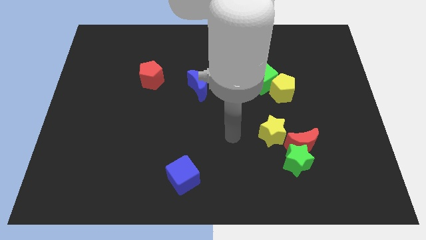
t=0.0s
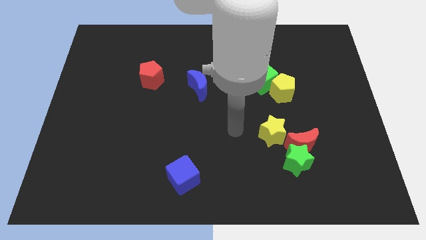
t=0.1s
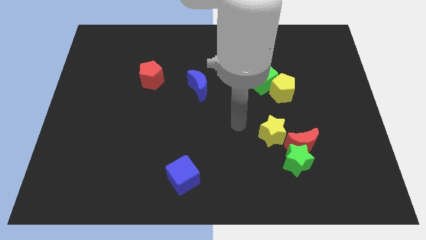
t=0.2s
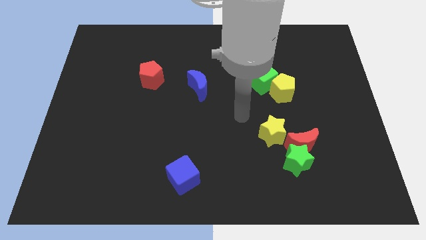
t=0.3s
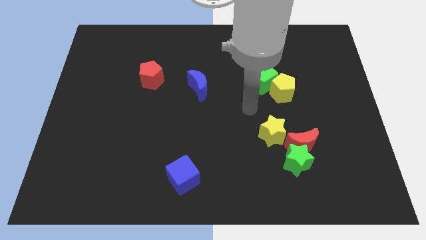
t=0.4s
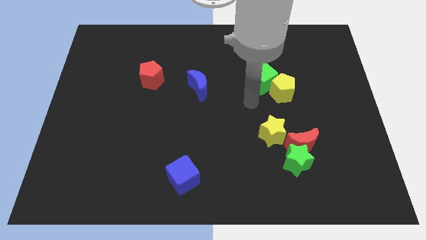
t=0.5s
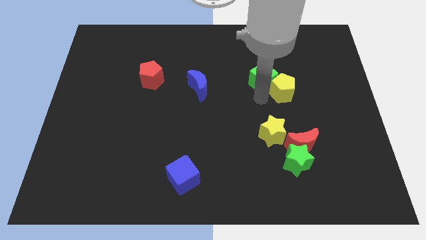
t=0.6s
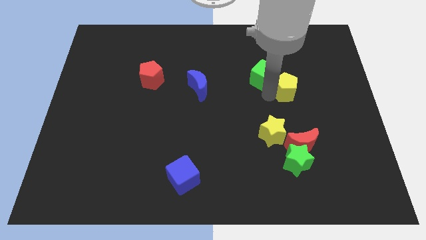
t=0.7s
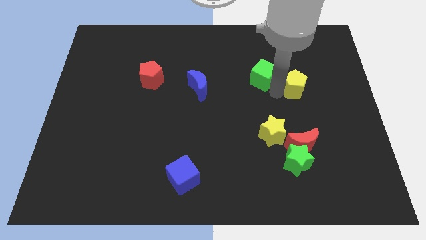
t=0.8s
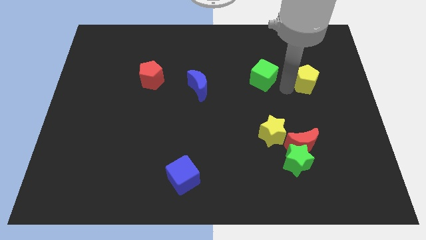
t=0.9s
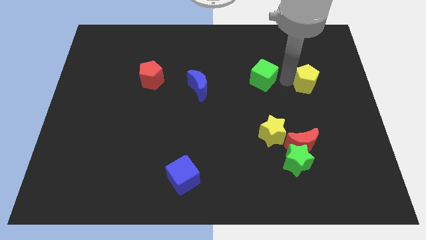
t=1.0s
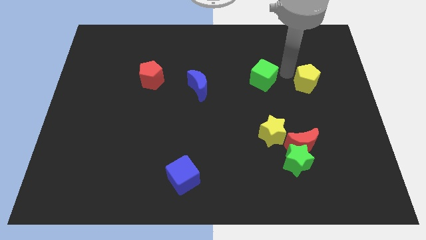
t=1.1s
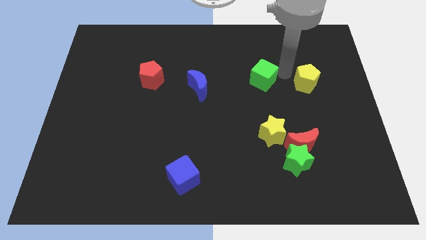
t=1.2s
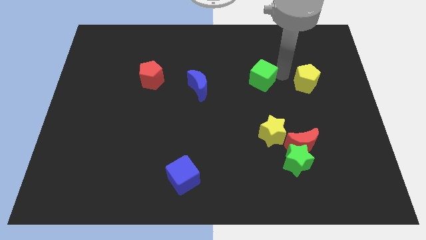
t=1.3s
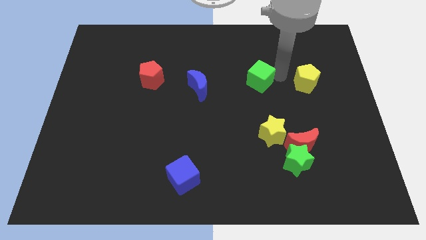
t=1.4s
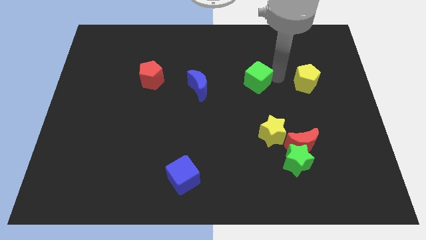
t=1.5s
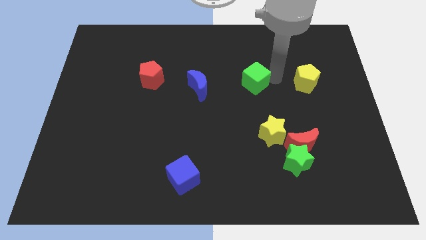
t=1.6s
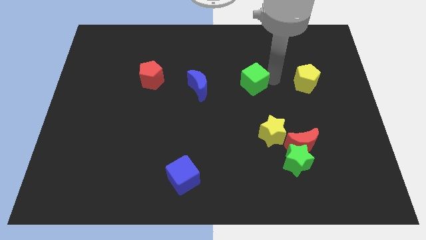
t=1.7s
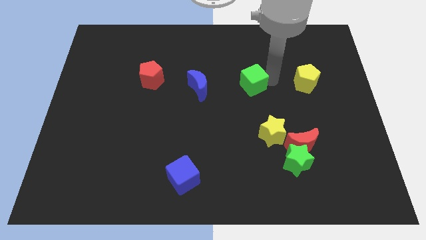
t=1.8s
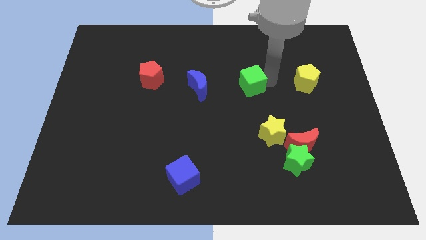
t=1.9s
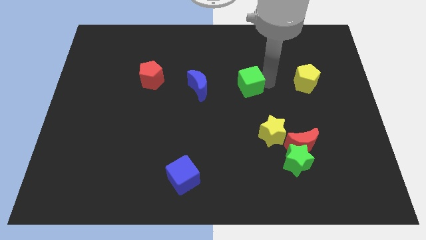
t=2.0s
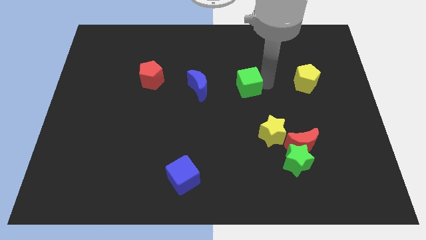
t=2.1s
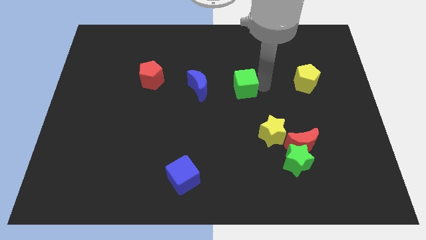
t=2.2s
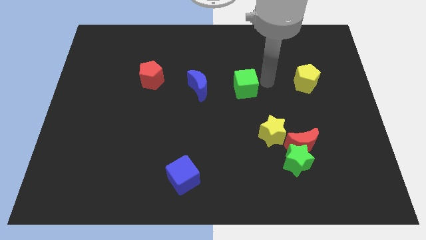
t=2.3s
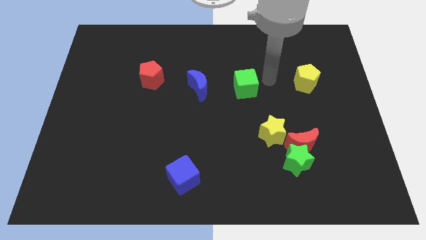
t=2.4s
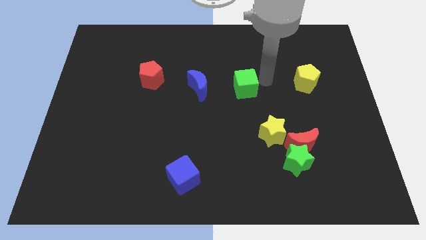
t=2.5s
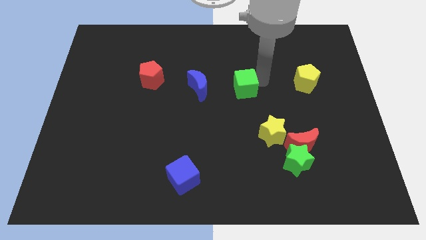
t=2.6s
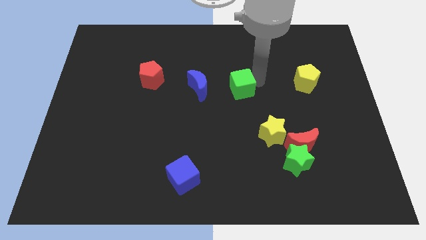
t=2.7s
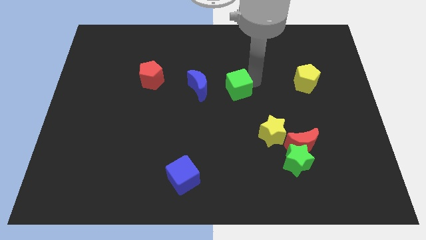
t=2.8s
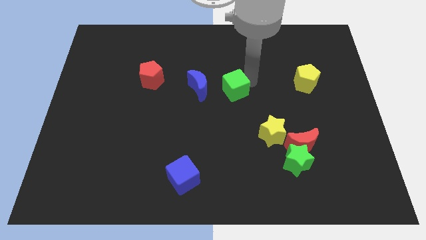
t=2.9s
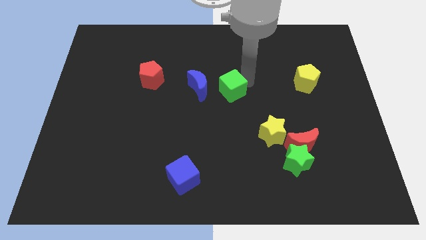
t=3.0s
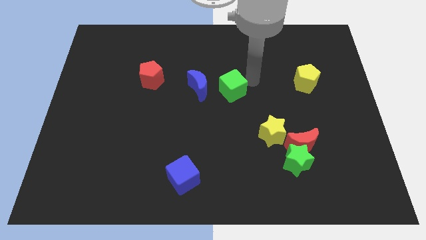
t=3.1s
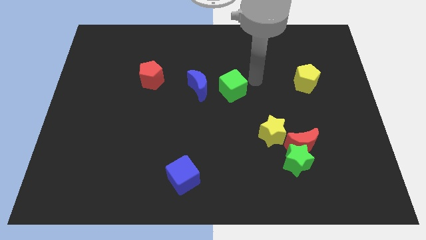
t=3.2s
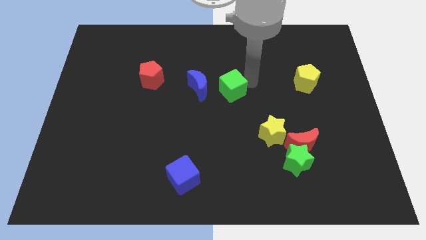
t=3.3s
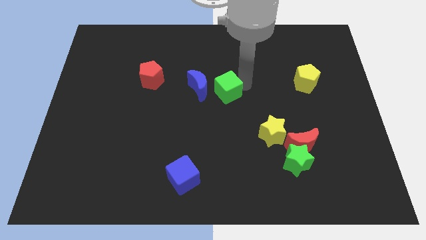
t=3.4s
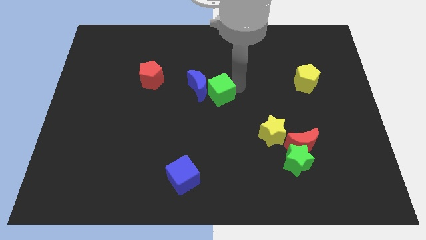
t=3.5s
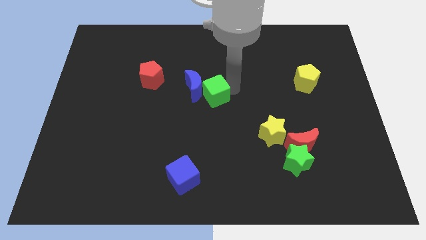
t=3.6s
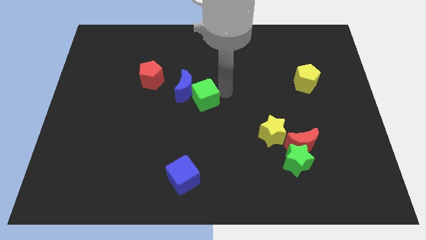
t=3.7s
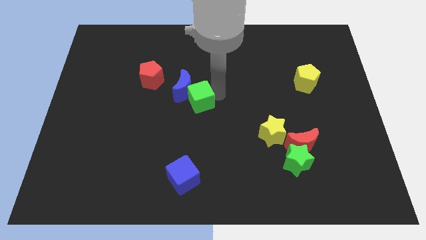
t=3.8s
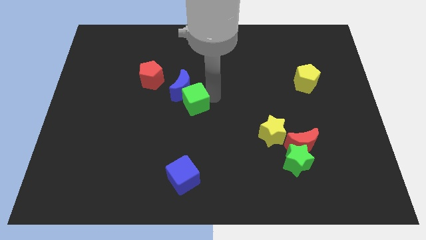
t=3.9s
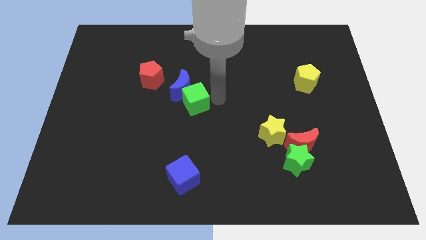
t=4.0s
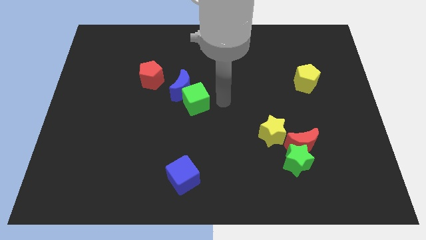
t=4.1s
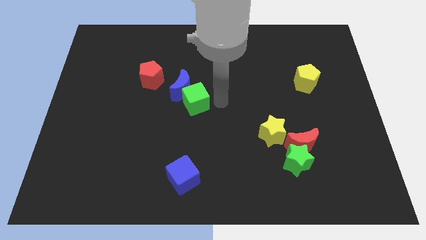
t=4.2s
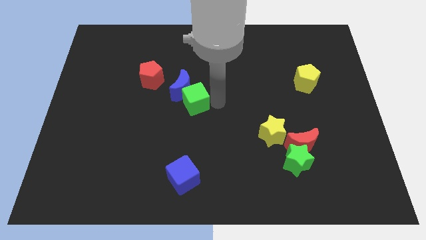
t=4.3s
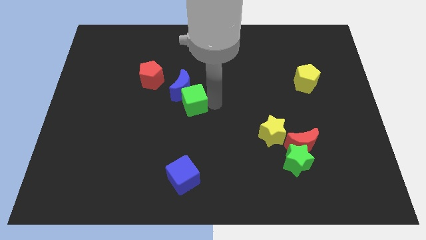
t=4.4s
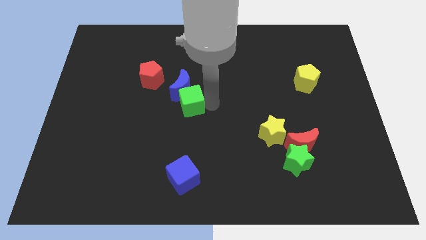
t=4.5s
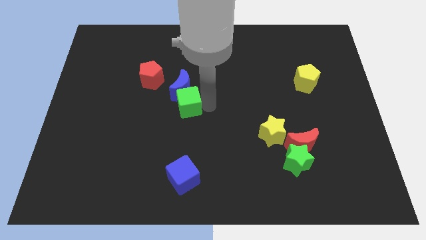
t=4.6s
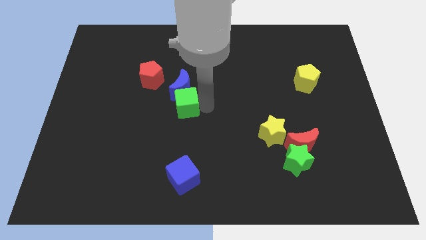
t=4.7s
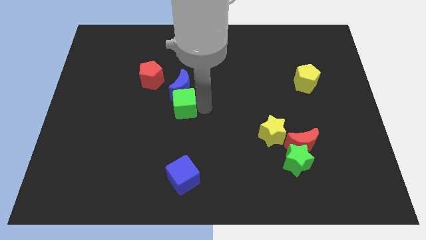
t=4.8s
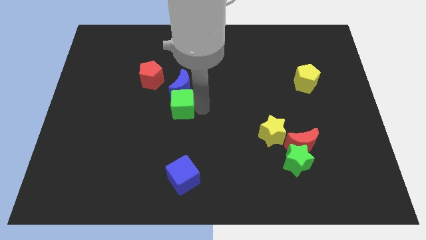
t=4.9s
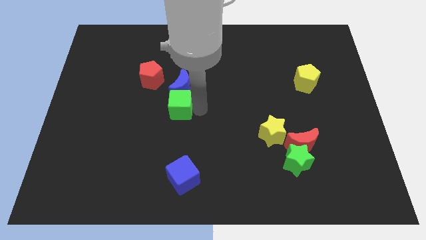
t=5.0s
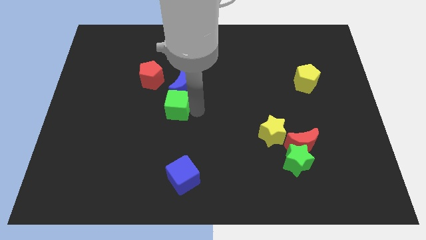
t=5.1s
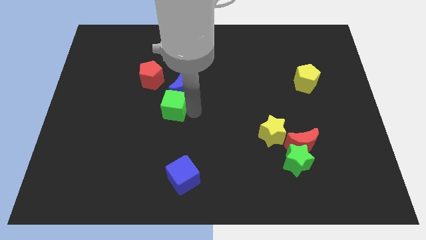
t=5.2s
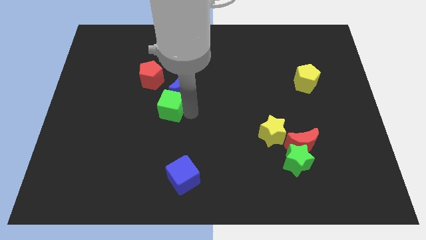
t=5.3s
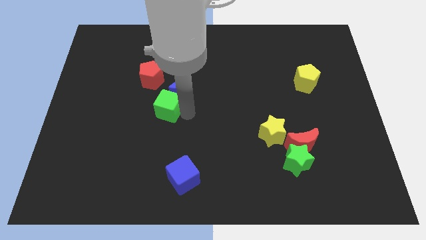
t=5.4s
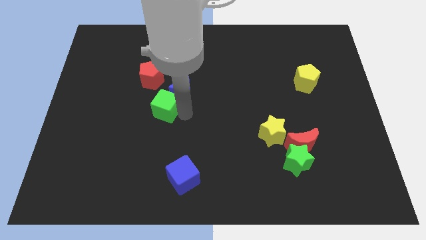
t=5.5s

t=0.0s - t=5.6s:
slide the green cube left

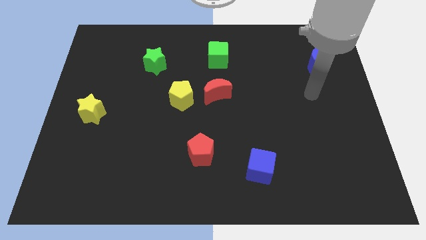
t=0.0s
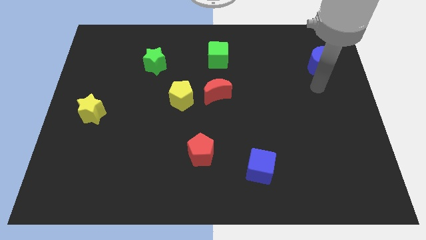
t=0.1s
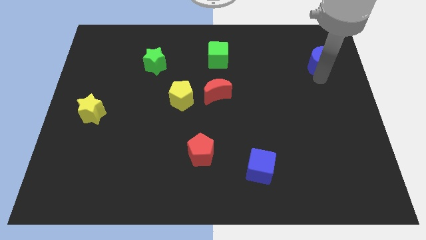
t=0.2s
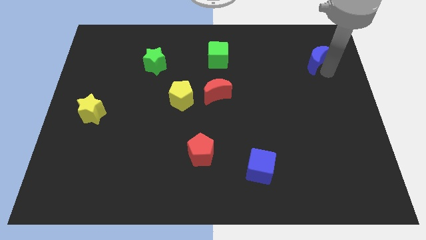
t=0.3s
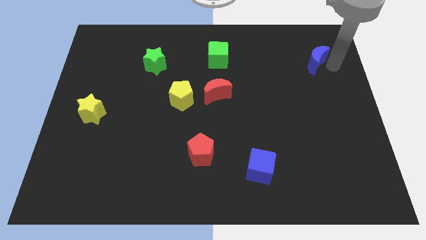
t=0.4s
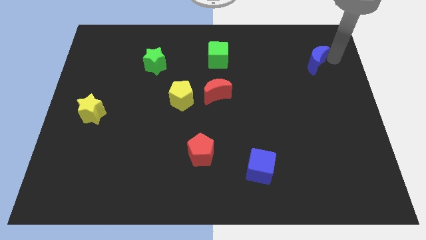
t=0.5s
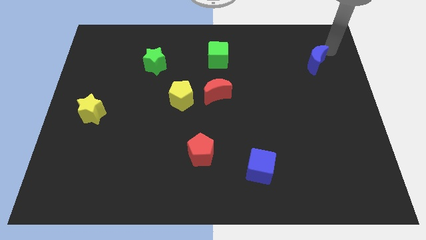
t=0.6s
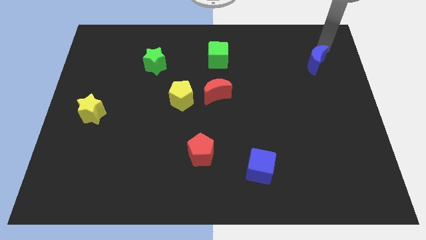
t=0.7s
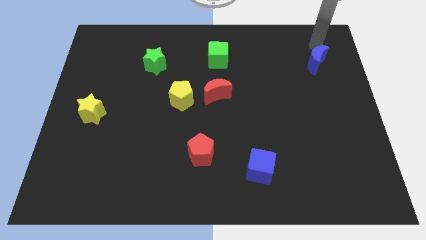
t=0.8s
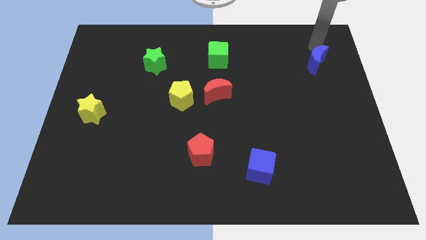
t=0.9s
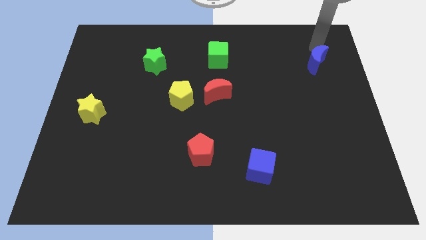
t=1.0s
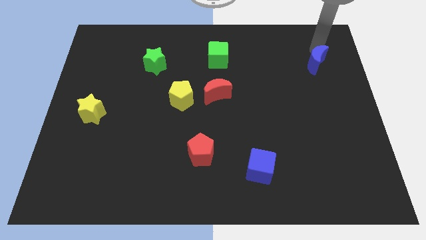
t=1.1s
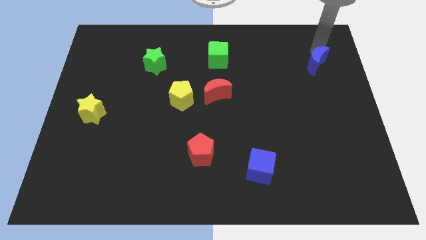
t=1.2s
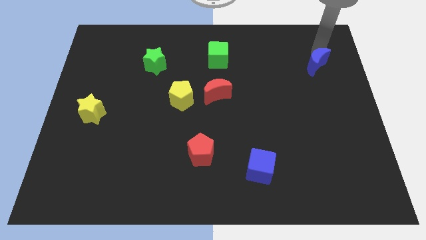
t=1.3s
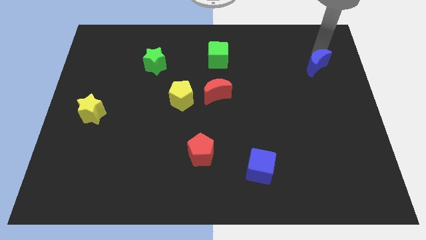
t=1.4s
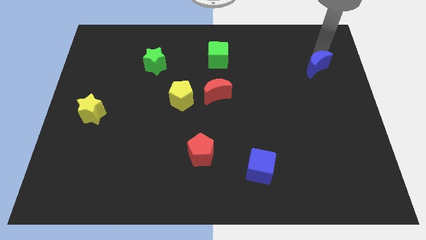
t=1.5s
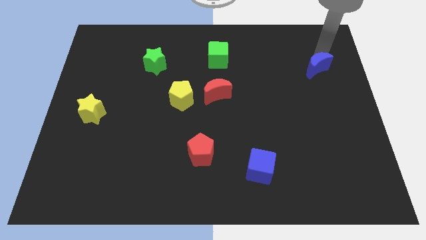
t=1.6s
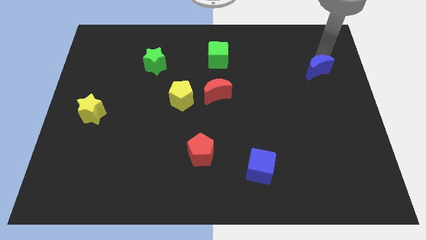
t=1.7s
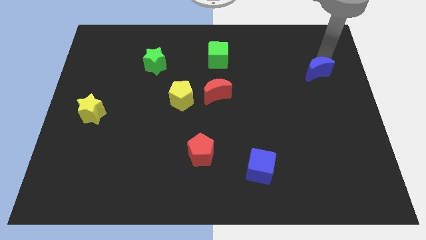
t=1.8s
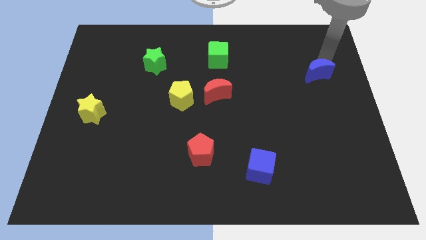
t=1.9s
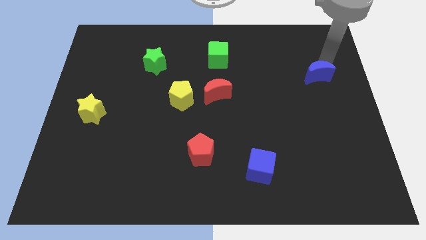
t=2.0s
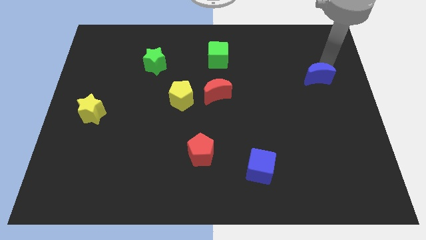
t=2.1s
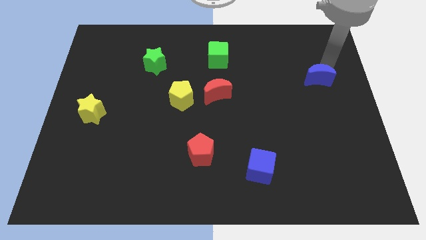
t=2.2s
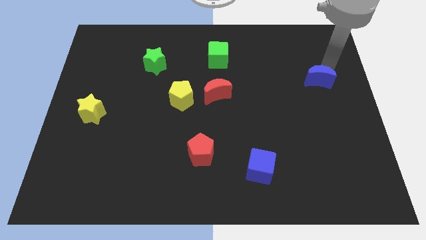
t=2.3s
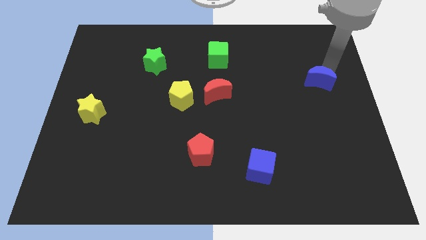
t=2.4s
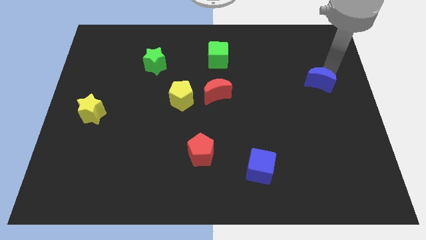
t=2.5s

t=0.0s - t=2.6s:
move the blue moon downwards slightly
